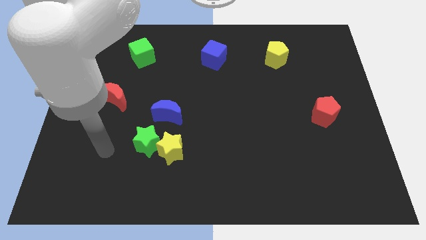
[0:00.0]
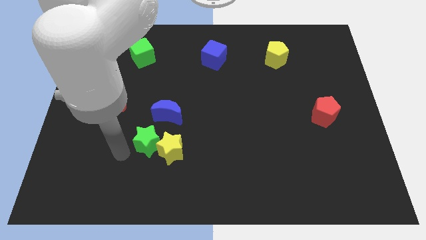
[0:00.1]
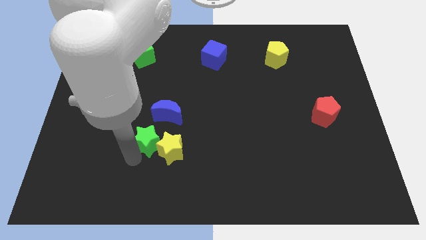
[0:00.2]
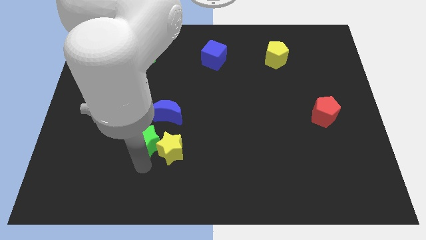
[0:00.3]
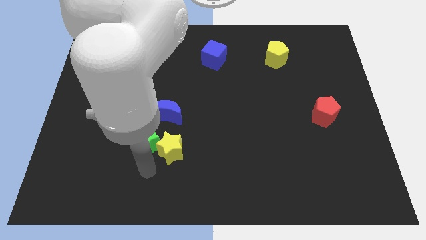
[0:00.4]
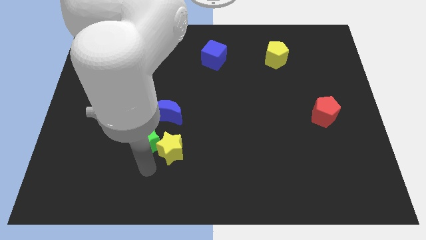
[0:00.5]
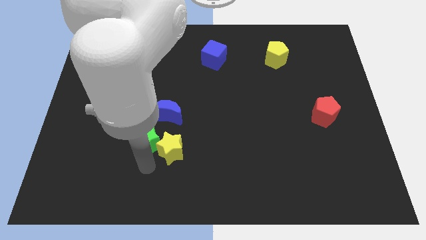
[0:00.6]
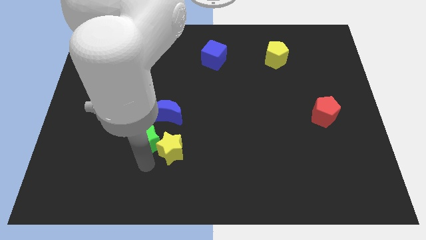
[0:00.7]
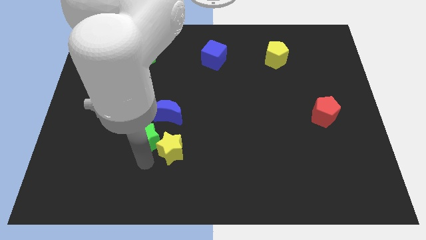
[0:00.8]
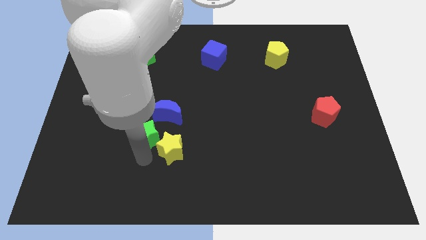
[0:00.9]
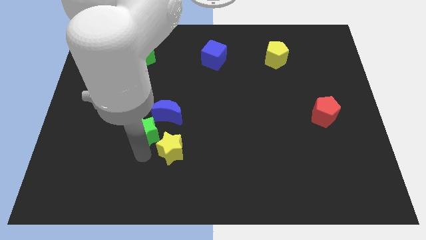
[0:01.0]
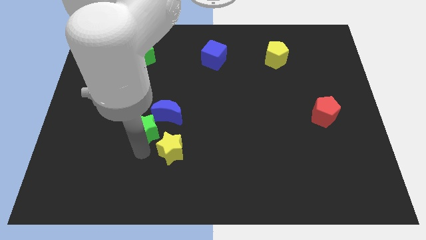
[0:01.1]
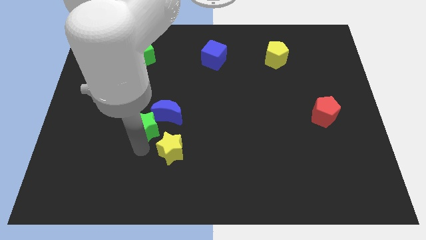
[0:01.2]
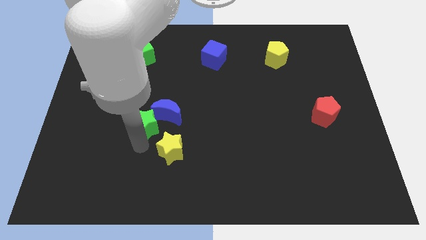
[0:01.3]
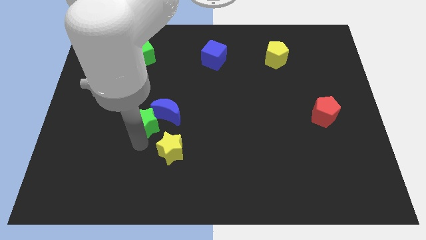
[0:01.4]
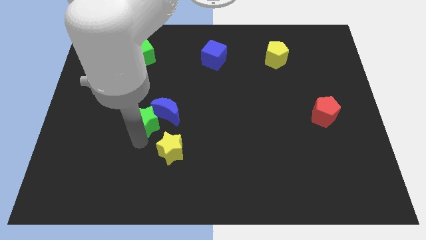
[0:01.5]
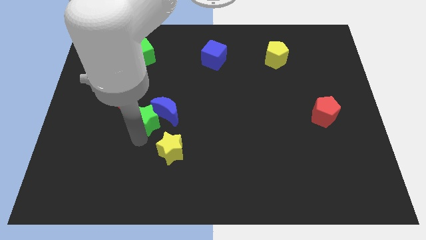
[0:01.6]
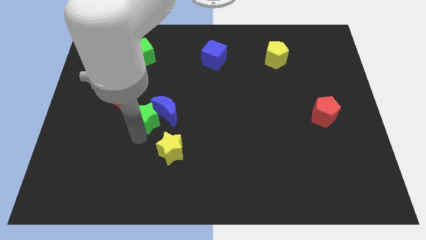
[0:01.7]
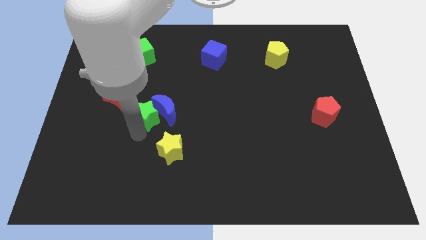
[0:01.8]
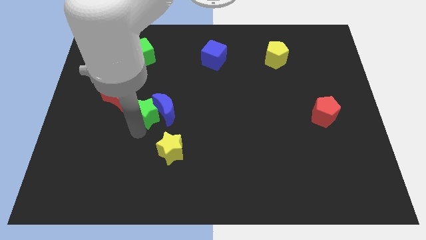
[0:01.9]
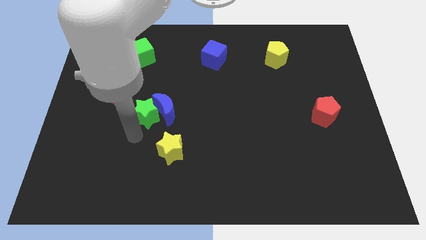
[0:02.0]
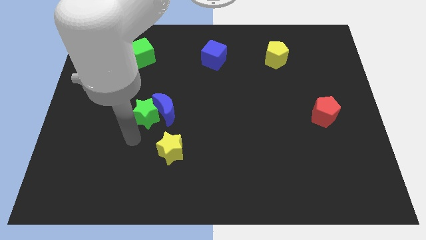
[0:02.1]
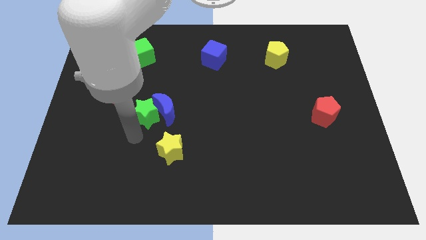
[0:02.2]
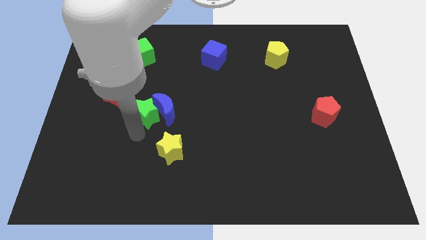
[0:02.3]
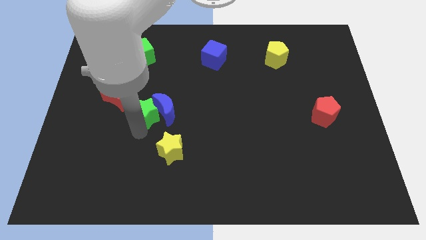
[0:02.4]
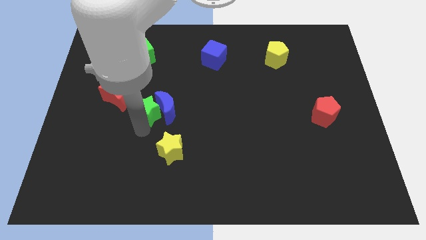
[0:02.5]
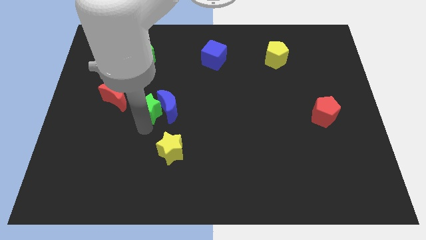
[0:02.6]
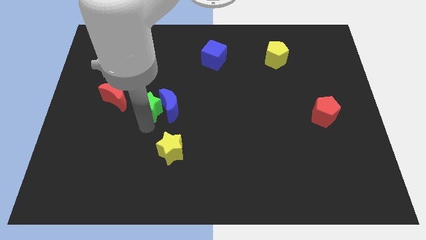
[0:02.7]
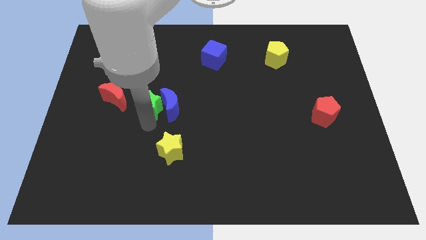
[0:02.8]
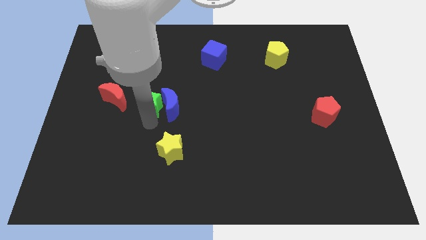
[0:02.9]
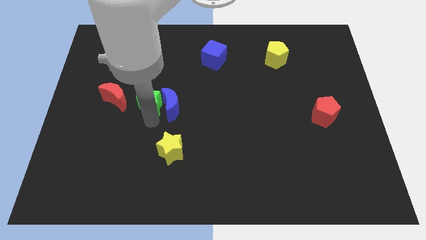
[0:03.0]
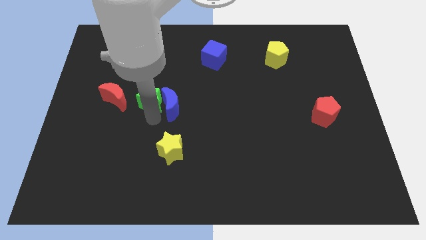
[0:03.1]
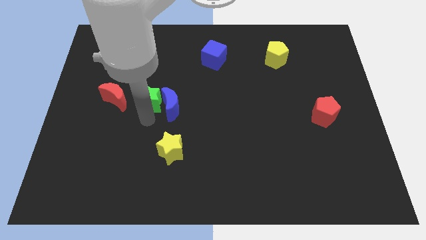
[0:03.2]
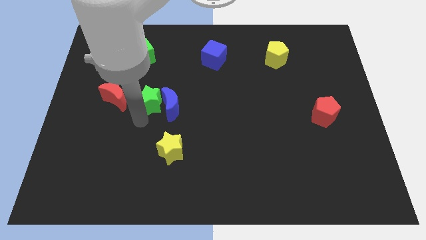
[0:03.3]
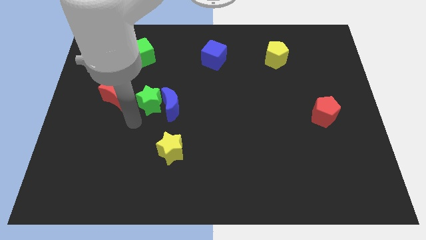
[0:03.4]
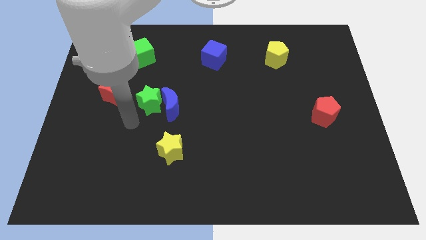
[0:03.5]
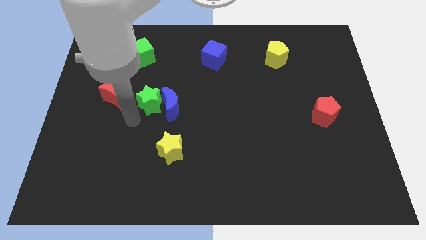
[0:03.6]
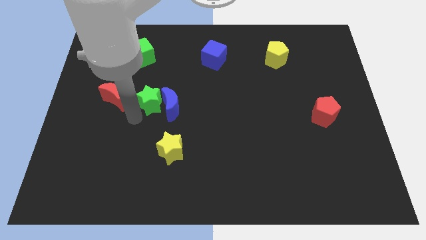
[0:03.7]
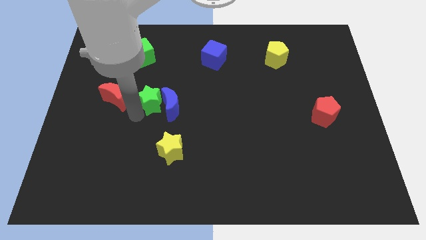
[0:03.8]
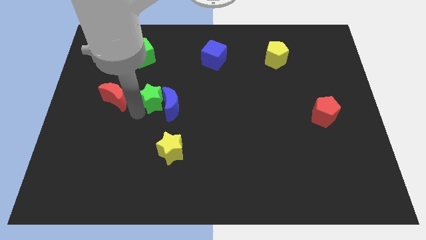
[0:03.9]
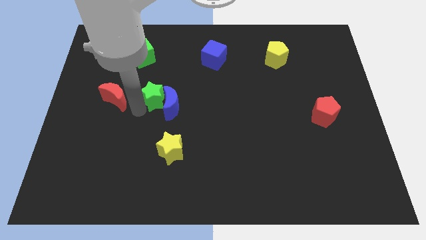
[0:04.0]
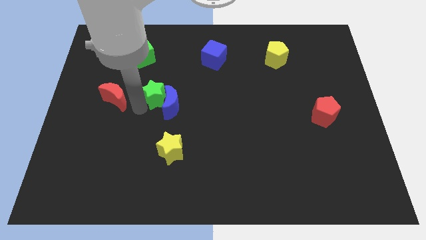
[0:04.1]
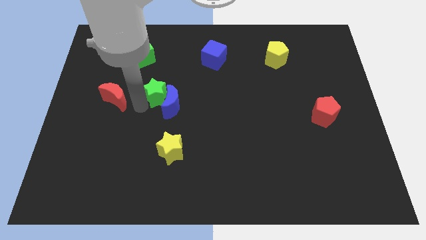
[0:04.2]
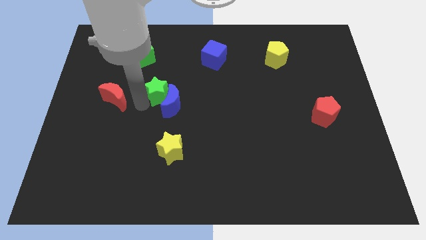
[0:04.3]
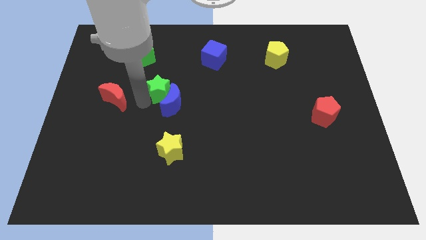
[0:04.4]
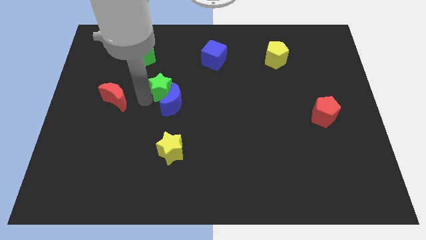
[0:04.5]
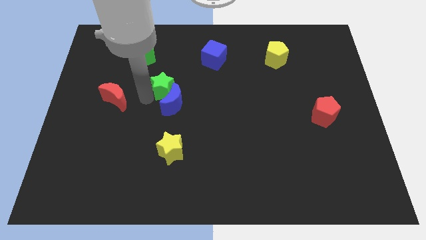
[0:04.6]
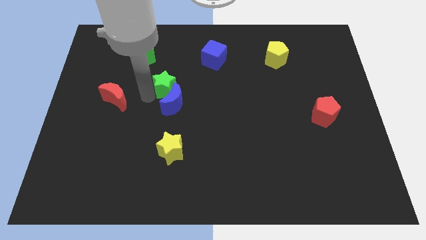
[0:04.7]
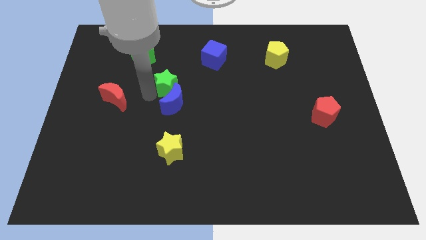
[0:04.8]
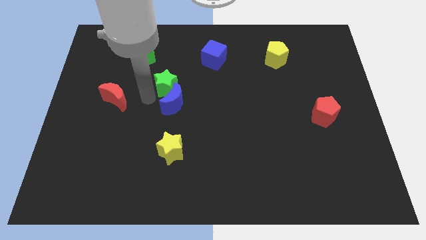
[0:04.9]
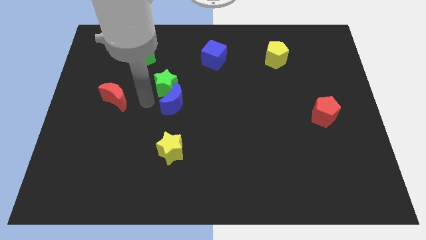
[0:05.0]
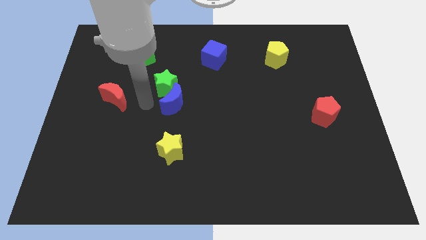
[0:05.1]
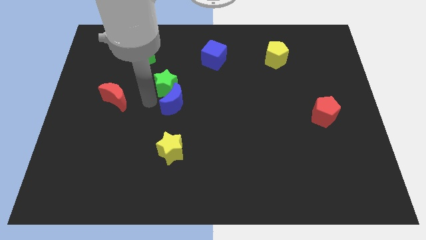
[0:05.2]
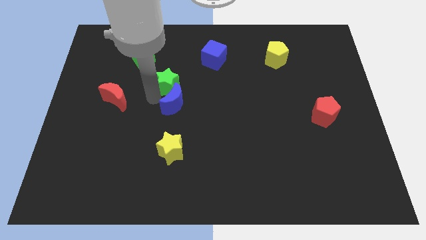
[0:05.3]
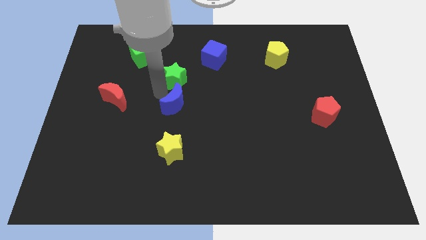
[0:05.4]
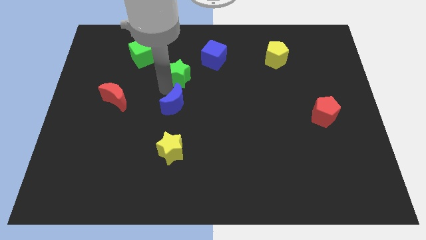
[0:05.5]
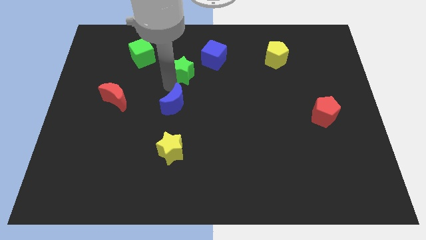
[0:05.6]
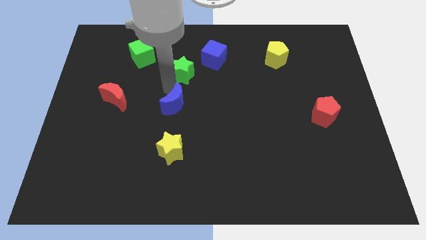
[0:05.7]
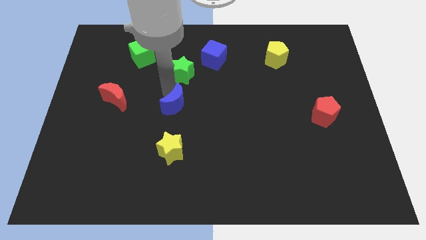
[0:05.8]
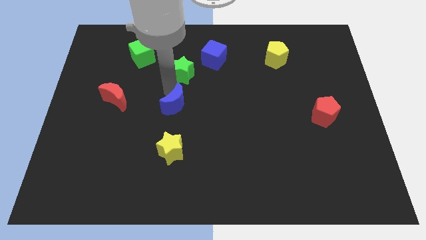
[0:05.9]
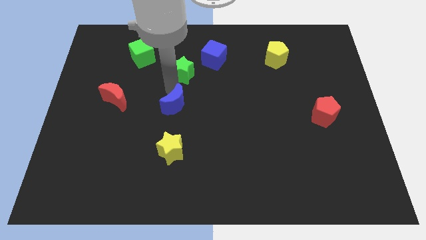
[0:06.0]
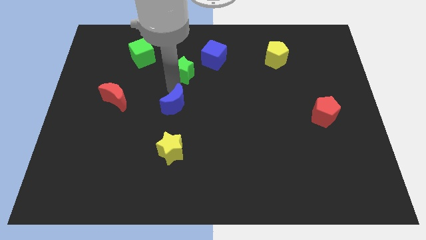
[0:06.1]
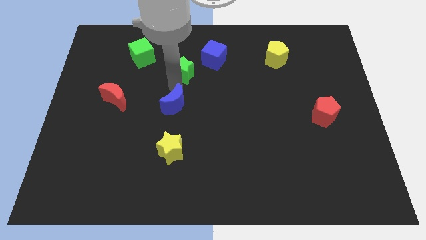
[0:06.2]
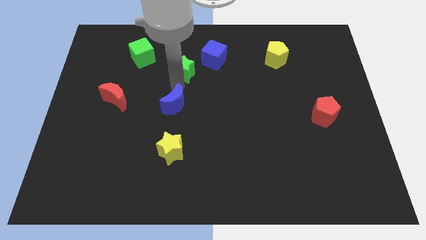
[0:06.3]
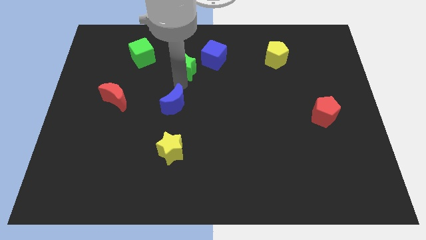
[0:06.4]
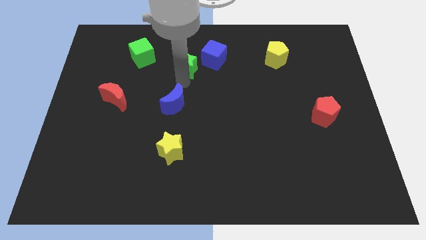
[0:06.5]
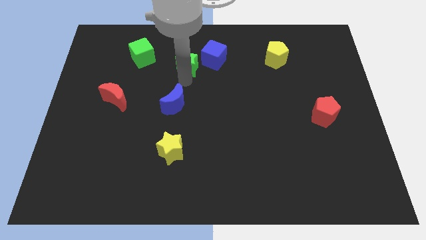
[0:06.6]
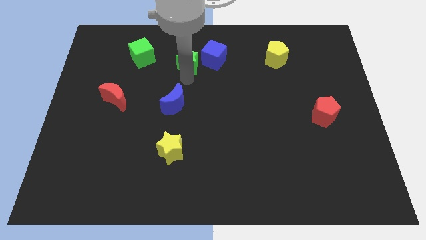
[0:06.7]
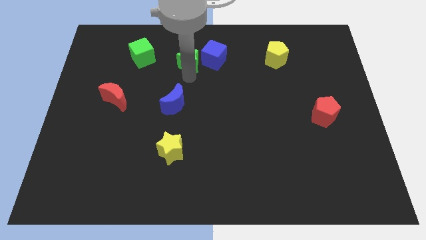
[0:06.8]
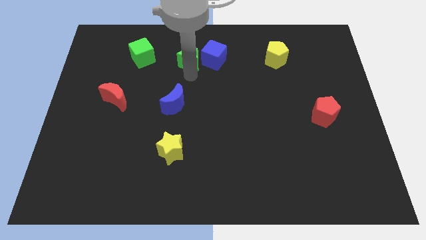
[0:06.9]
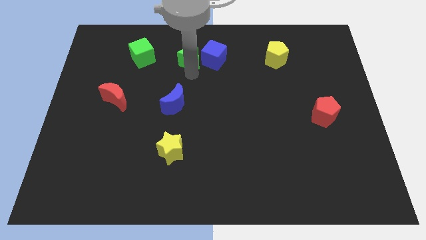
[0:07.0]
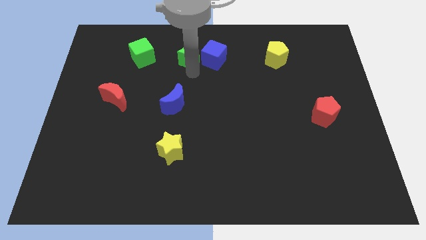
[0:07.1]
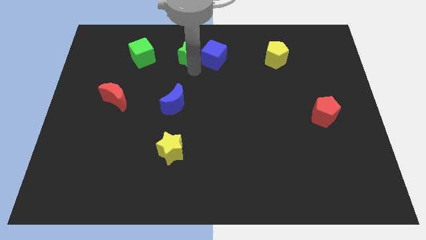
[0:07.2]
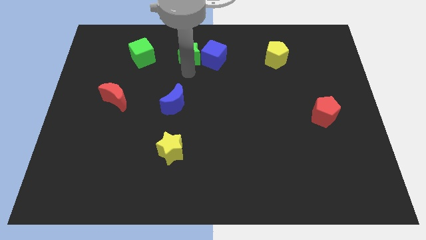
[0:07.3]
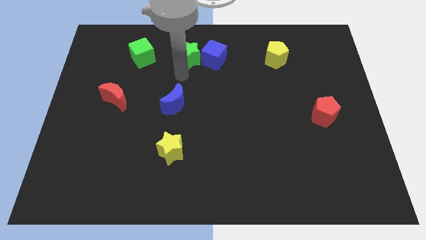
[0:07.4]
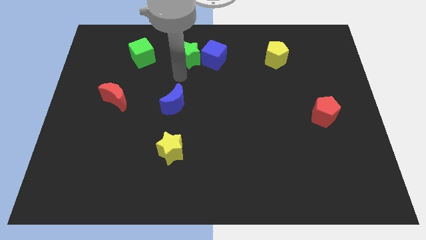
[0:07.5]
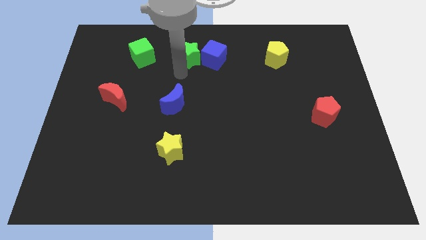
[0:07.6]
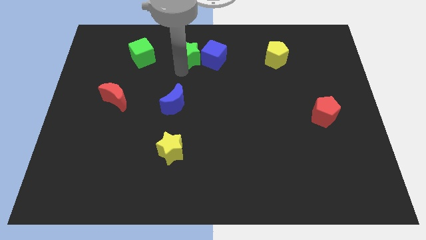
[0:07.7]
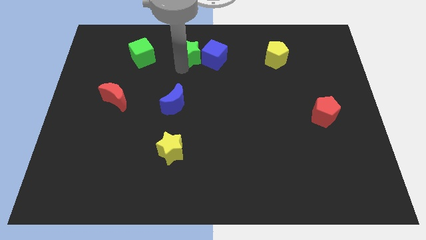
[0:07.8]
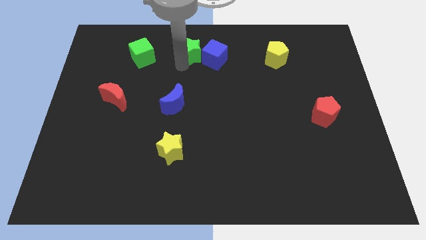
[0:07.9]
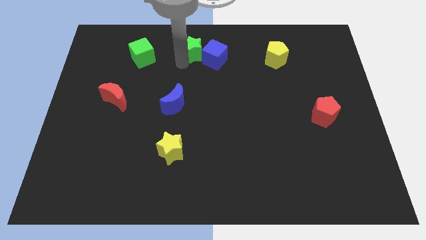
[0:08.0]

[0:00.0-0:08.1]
move the green star to the top
